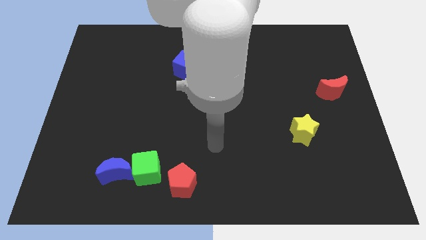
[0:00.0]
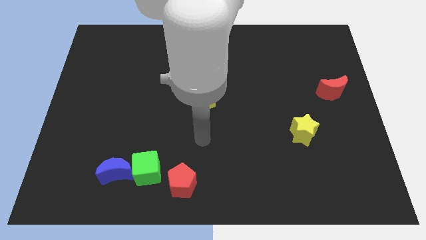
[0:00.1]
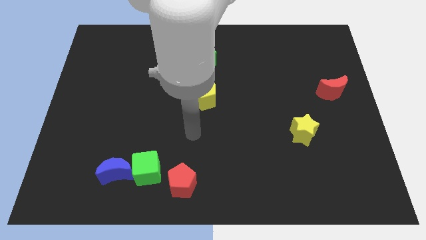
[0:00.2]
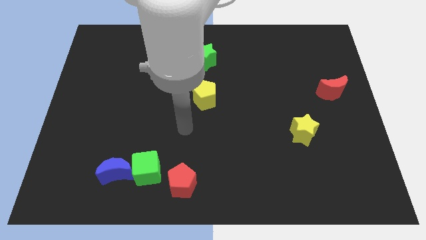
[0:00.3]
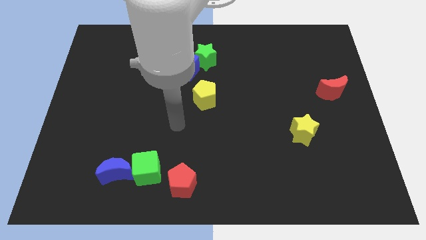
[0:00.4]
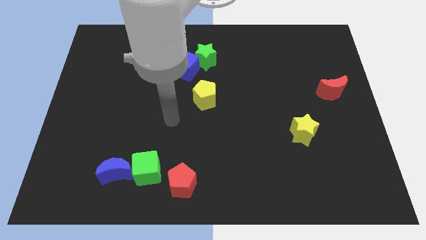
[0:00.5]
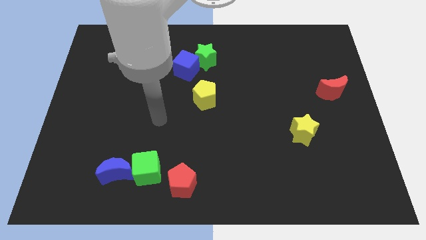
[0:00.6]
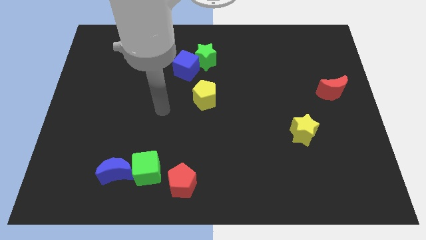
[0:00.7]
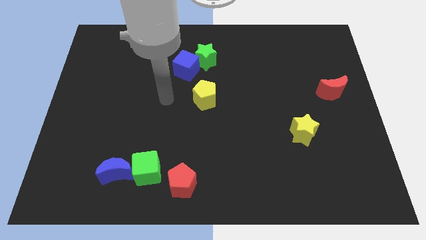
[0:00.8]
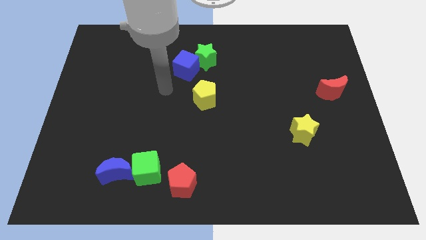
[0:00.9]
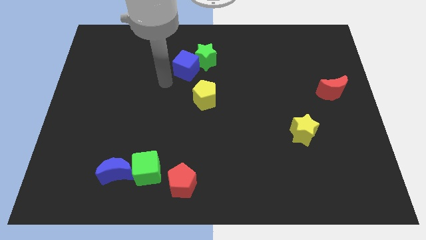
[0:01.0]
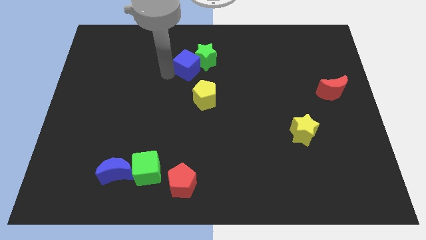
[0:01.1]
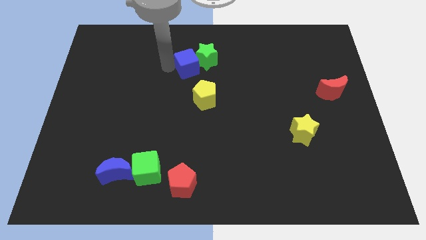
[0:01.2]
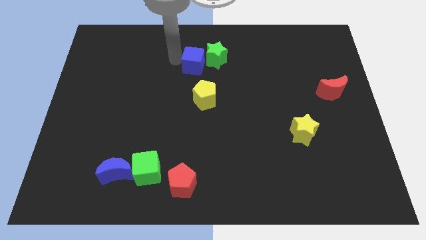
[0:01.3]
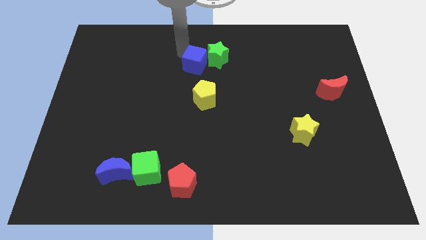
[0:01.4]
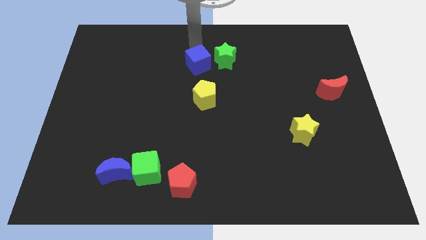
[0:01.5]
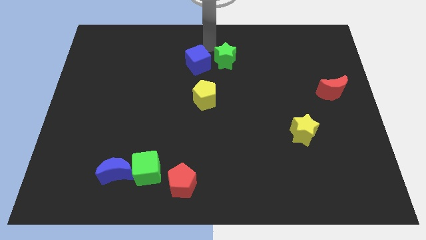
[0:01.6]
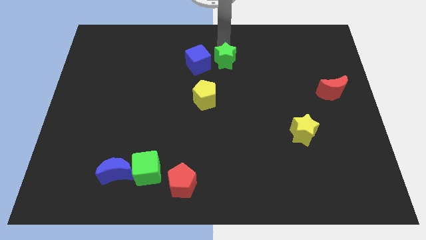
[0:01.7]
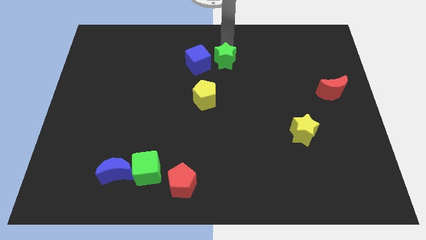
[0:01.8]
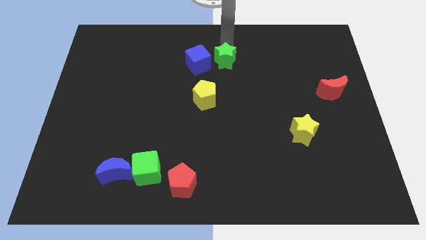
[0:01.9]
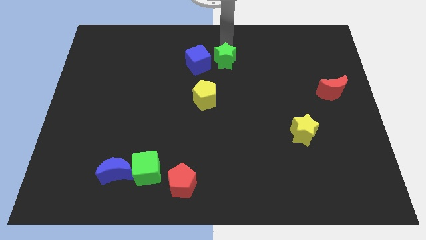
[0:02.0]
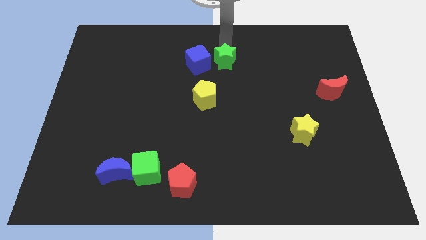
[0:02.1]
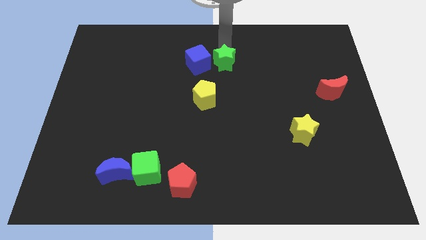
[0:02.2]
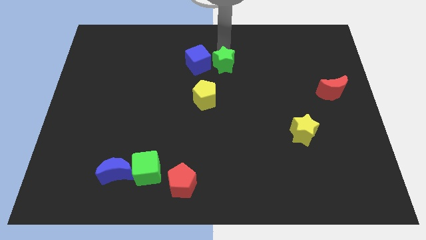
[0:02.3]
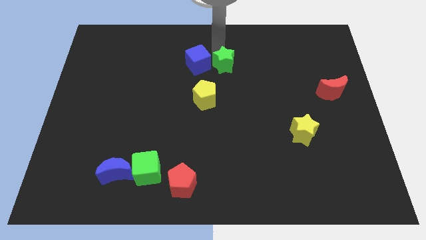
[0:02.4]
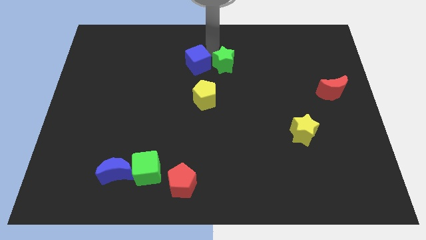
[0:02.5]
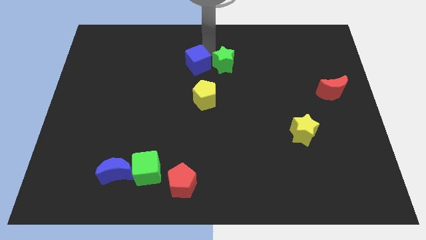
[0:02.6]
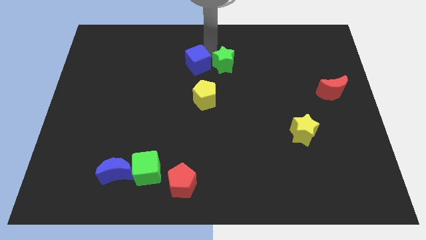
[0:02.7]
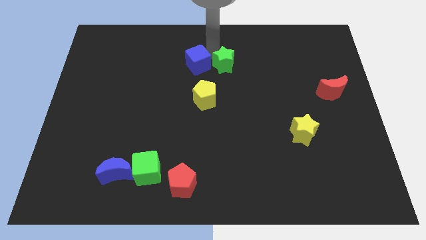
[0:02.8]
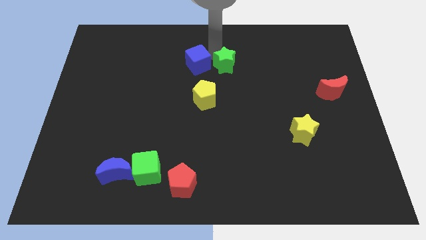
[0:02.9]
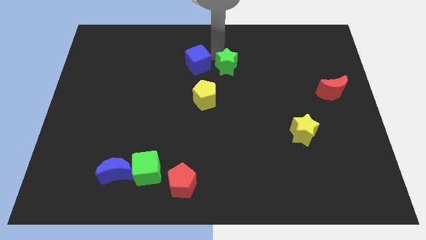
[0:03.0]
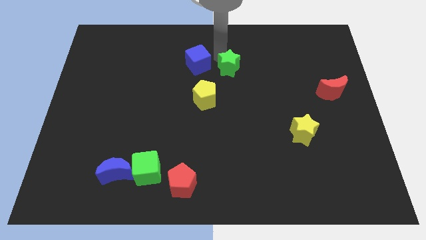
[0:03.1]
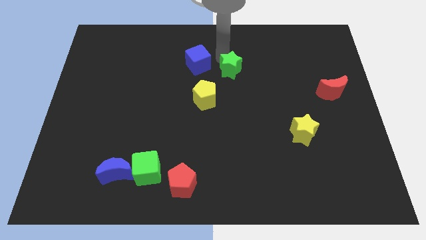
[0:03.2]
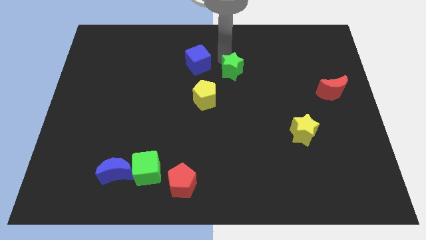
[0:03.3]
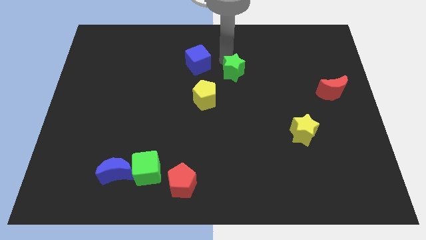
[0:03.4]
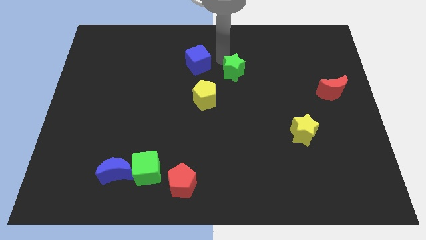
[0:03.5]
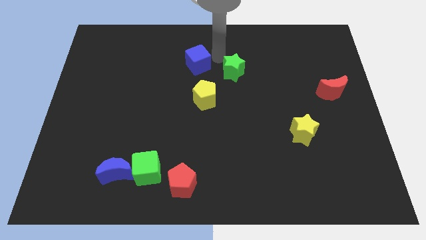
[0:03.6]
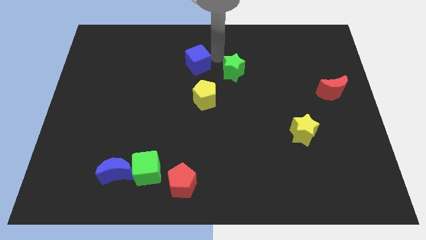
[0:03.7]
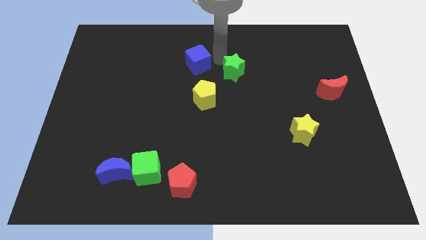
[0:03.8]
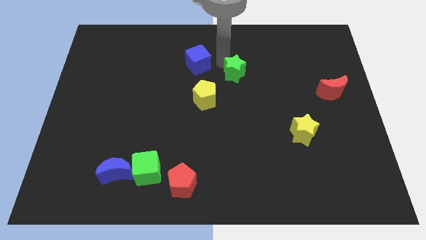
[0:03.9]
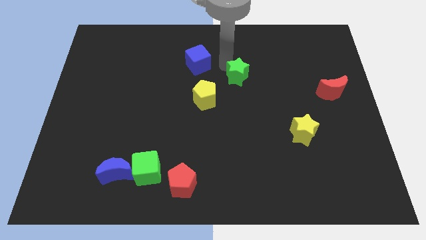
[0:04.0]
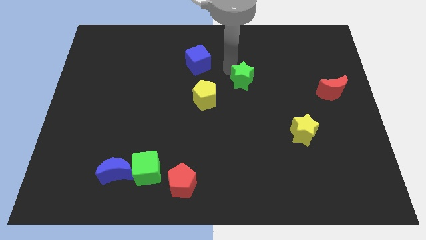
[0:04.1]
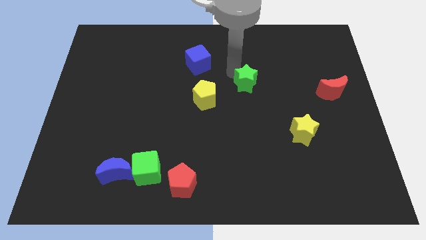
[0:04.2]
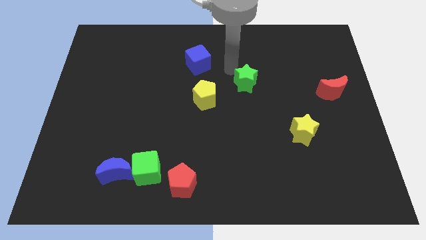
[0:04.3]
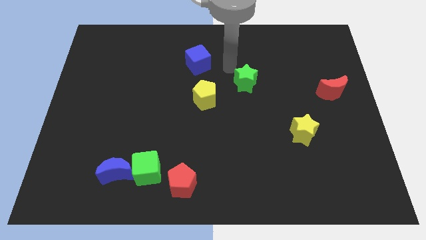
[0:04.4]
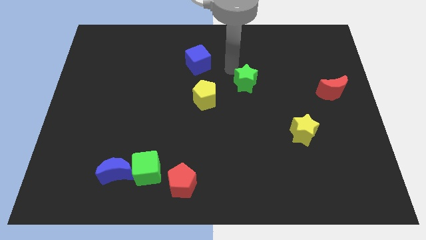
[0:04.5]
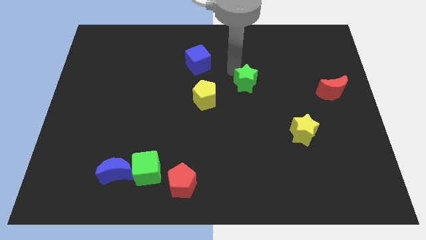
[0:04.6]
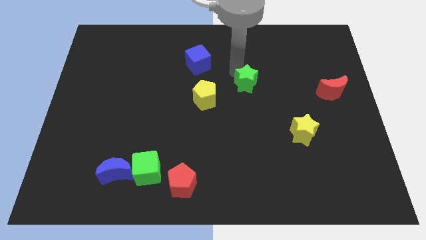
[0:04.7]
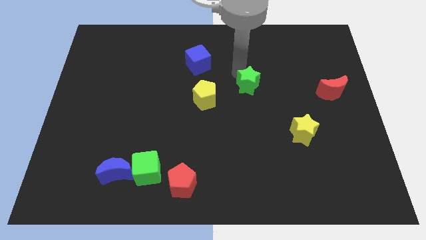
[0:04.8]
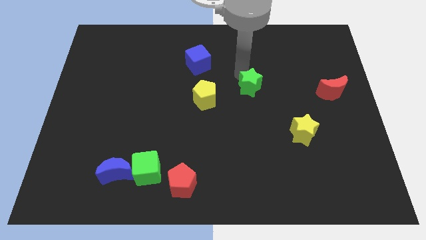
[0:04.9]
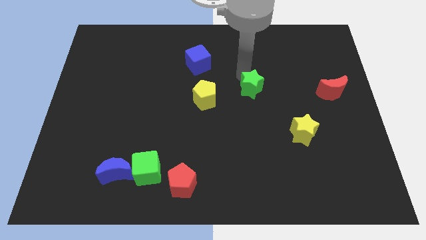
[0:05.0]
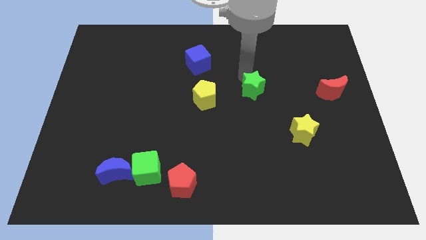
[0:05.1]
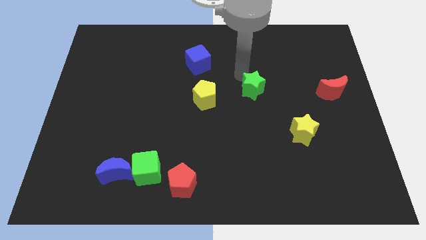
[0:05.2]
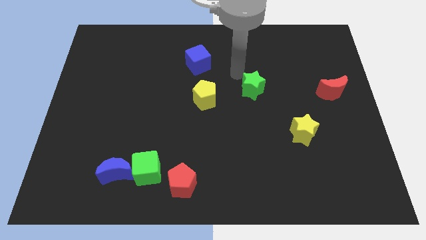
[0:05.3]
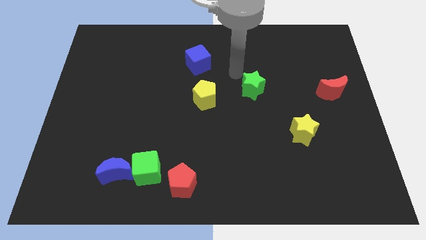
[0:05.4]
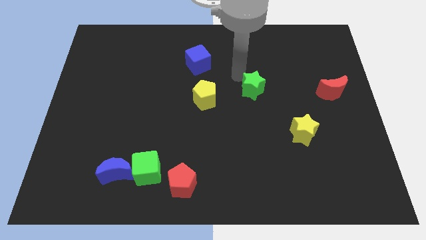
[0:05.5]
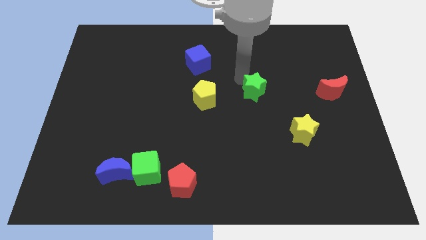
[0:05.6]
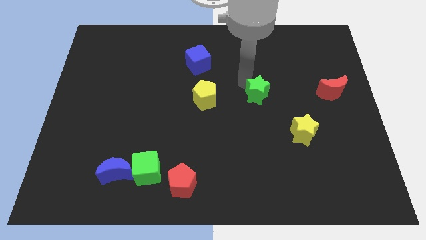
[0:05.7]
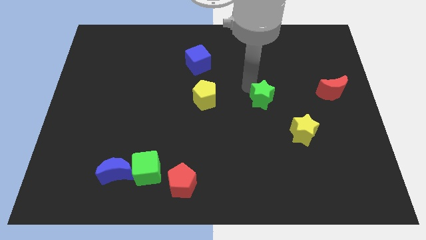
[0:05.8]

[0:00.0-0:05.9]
put the green star diagonally up and to the left of the yellow star

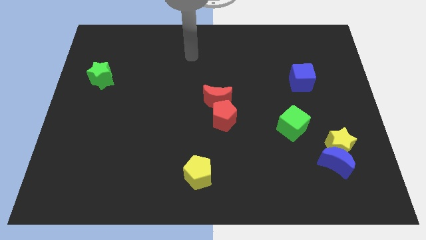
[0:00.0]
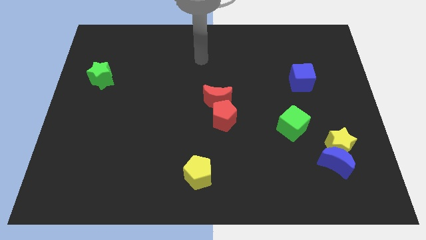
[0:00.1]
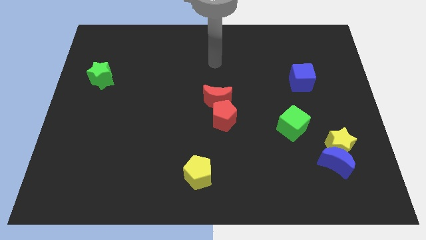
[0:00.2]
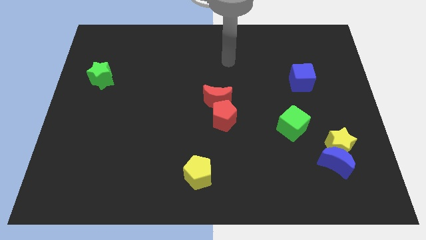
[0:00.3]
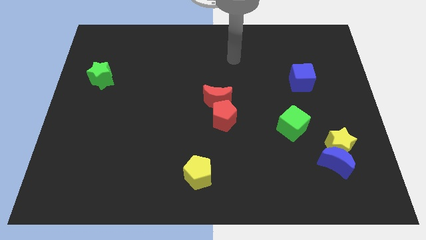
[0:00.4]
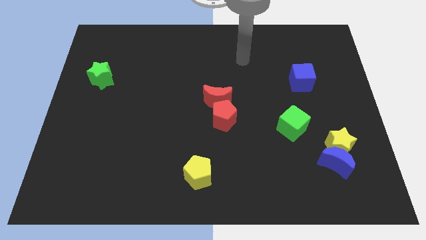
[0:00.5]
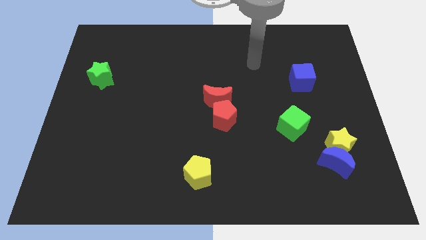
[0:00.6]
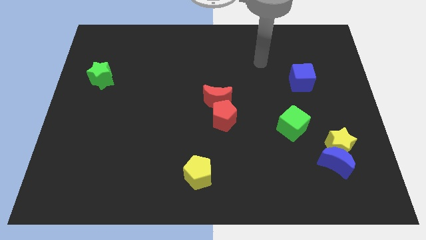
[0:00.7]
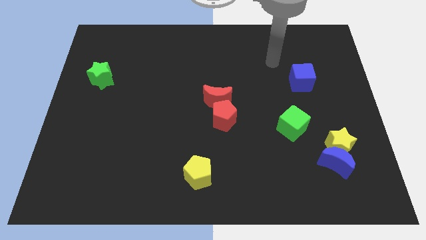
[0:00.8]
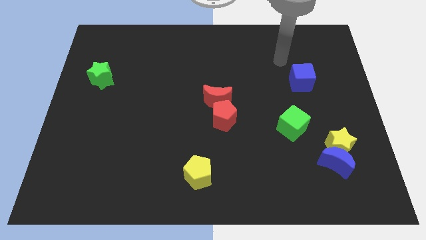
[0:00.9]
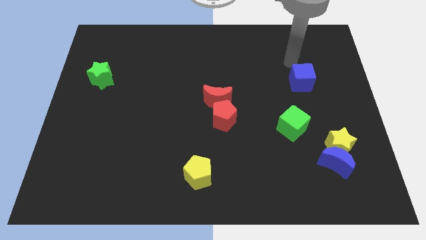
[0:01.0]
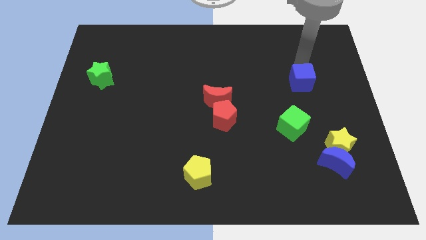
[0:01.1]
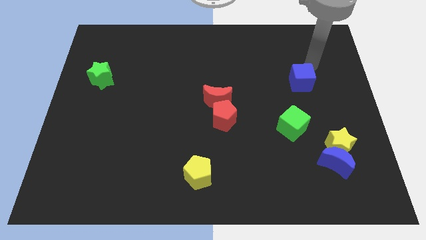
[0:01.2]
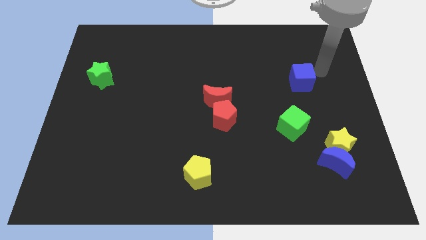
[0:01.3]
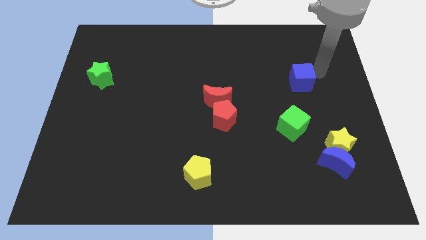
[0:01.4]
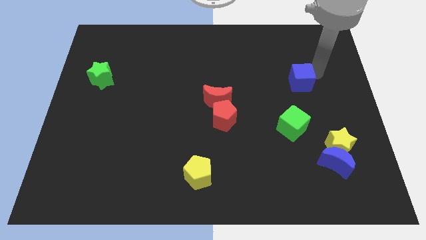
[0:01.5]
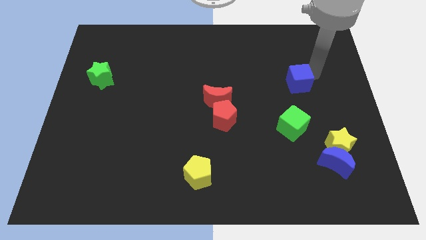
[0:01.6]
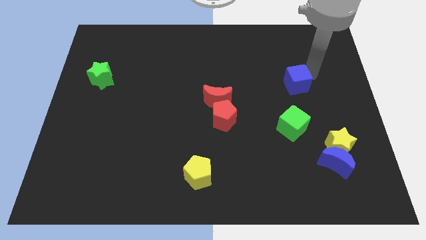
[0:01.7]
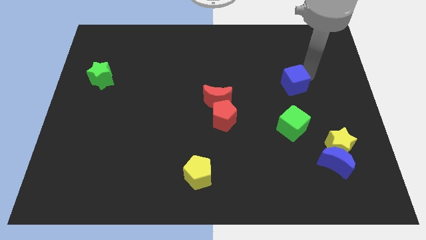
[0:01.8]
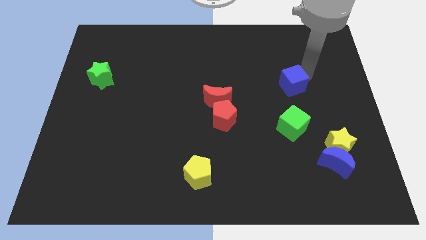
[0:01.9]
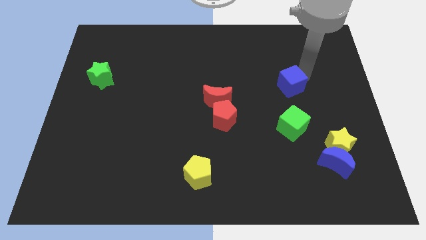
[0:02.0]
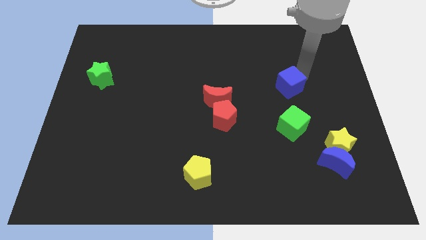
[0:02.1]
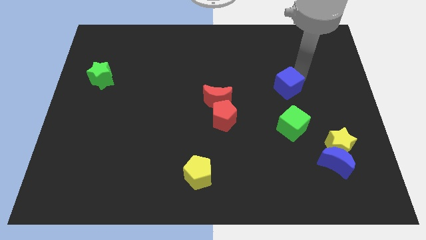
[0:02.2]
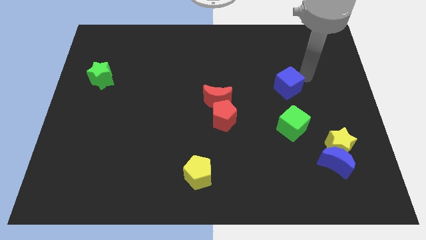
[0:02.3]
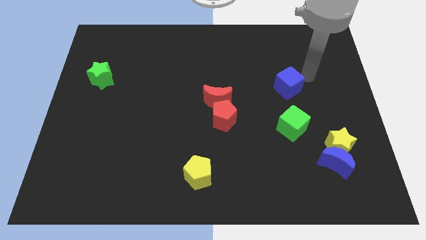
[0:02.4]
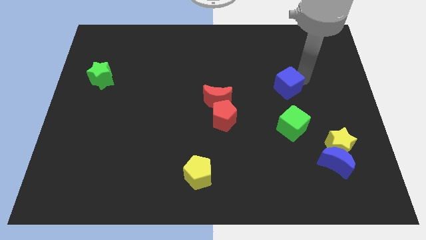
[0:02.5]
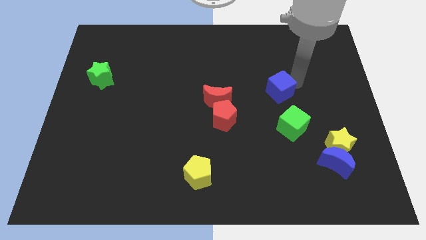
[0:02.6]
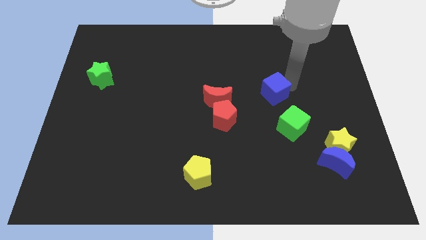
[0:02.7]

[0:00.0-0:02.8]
move the blue cube to the right side of the red moon
